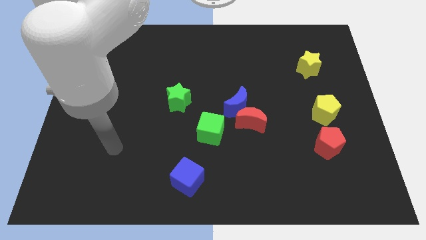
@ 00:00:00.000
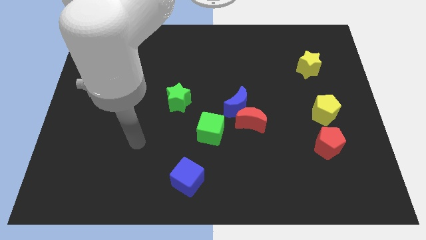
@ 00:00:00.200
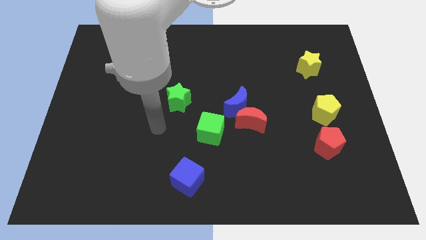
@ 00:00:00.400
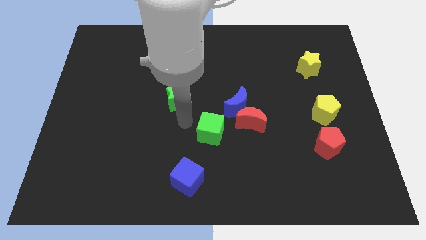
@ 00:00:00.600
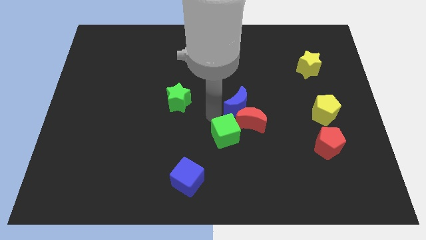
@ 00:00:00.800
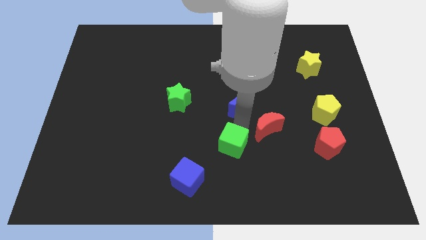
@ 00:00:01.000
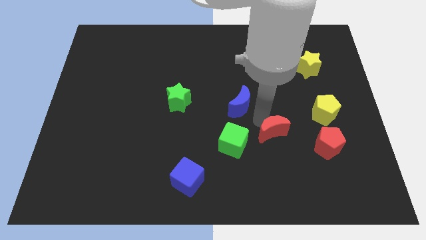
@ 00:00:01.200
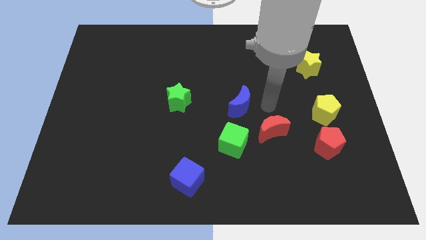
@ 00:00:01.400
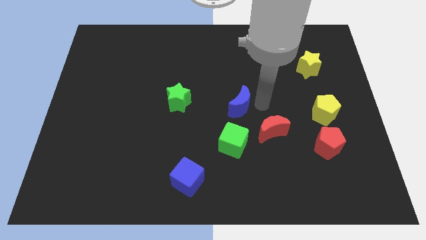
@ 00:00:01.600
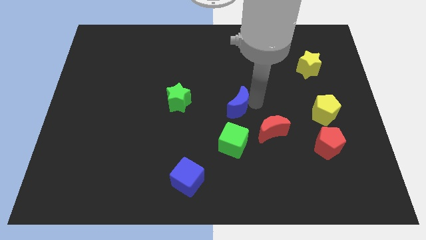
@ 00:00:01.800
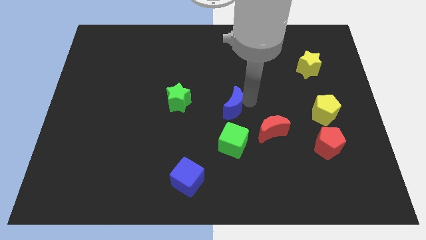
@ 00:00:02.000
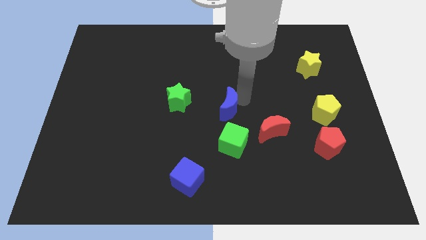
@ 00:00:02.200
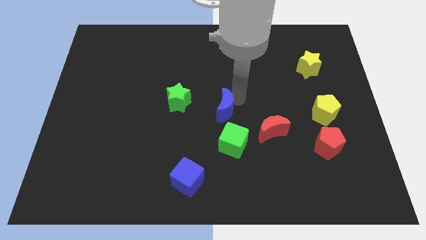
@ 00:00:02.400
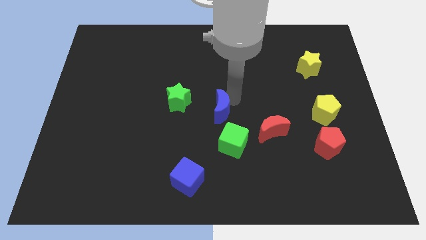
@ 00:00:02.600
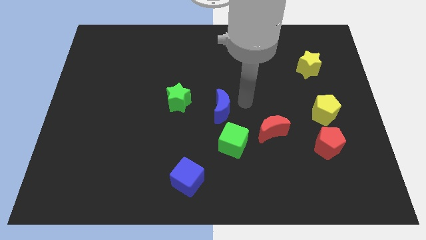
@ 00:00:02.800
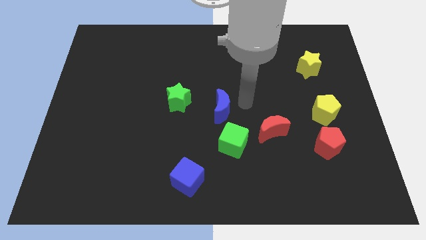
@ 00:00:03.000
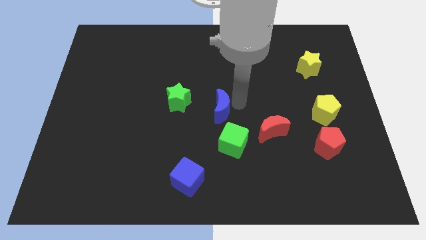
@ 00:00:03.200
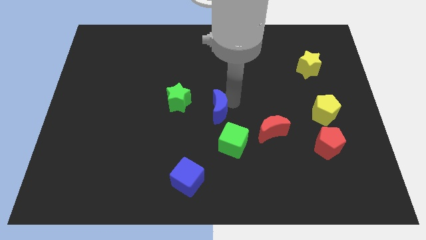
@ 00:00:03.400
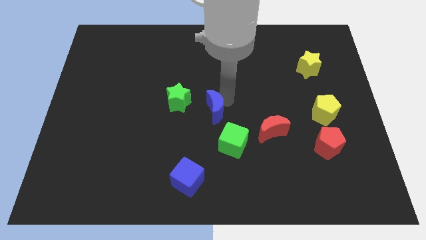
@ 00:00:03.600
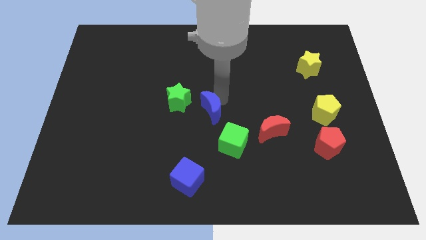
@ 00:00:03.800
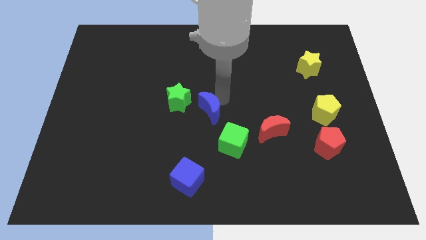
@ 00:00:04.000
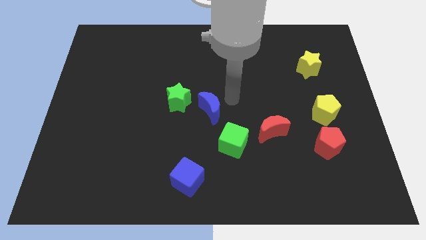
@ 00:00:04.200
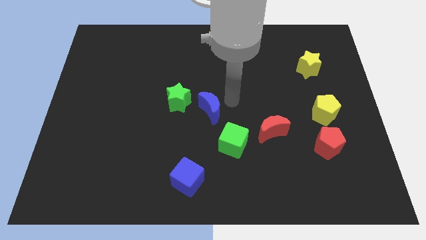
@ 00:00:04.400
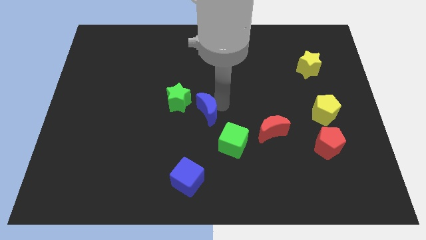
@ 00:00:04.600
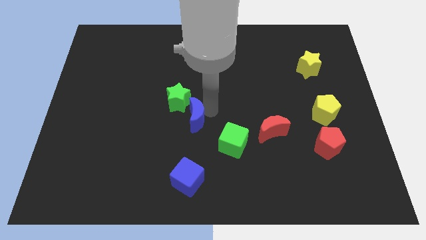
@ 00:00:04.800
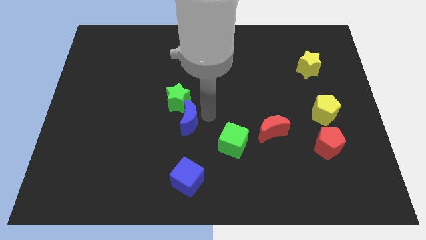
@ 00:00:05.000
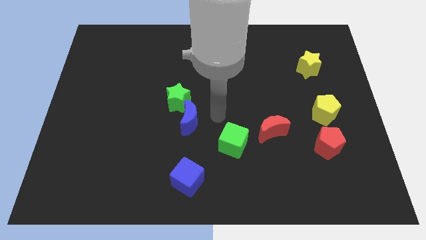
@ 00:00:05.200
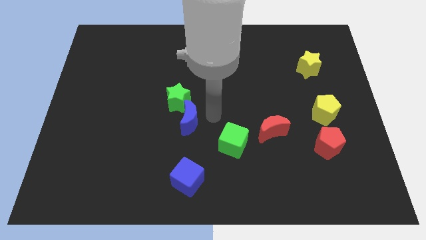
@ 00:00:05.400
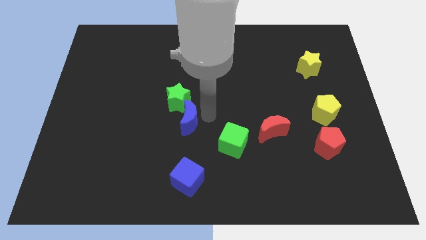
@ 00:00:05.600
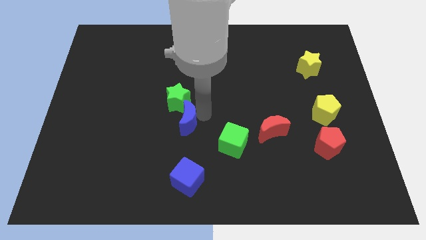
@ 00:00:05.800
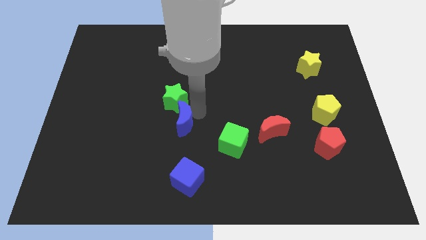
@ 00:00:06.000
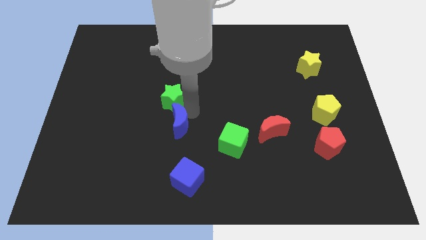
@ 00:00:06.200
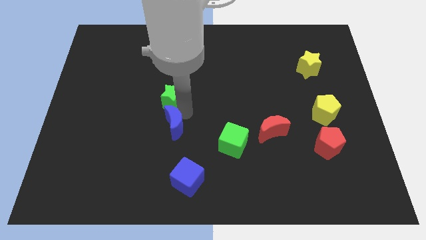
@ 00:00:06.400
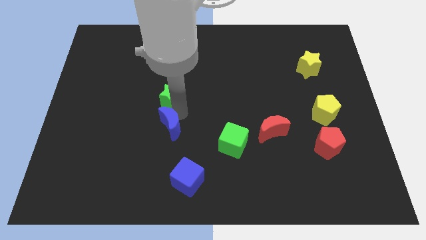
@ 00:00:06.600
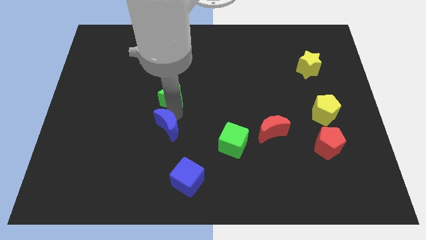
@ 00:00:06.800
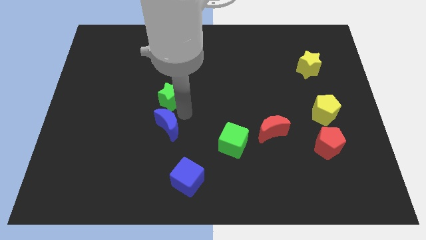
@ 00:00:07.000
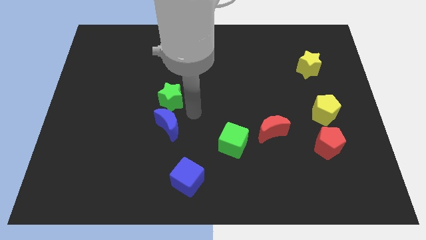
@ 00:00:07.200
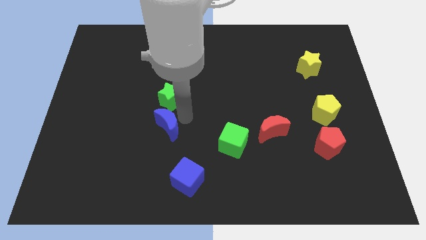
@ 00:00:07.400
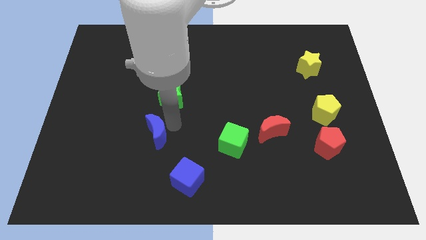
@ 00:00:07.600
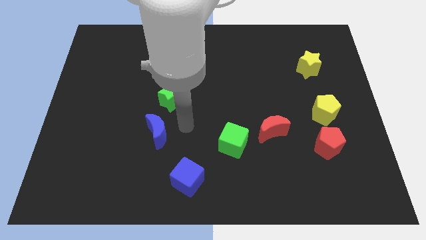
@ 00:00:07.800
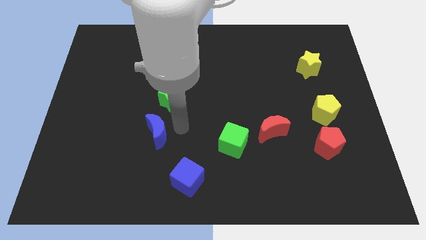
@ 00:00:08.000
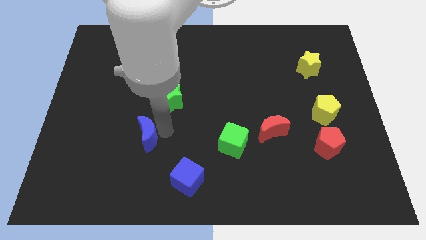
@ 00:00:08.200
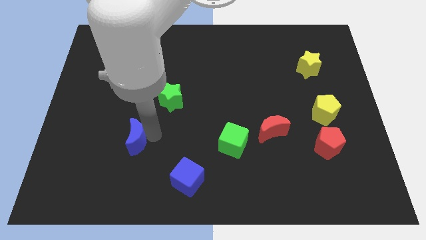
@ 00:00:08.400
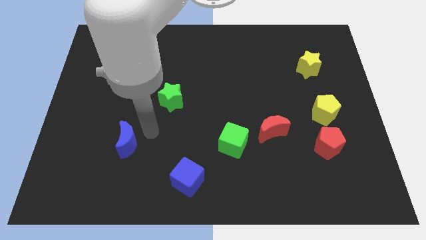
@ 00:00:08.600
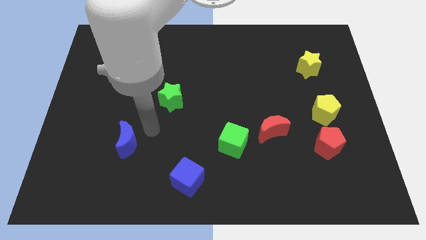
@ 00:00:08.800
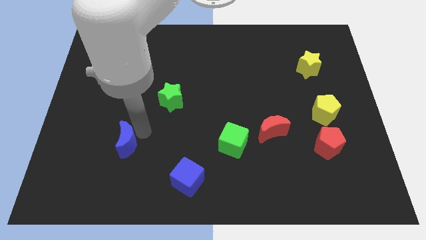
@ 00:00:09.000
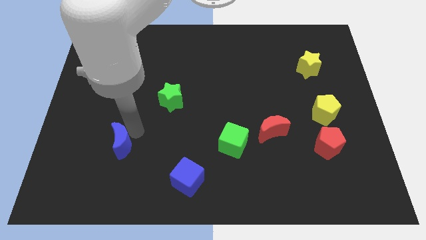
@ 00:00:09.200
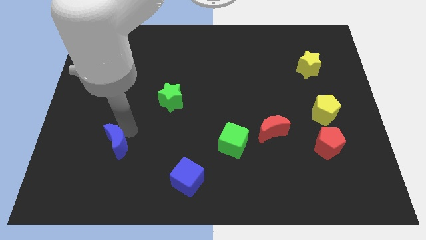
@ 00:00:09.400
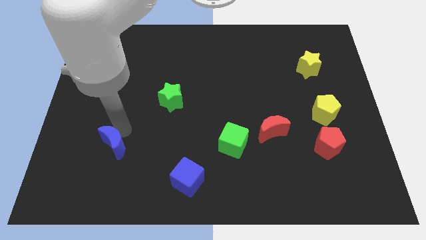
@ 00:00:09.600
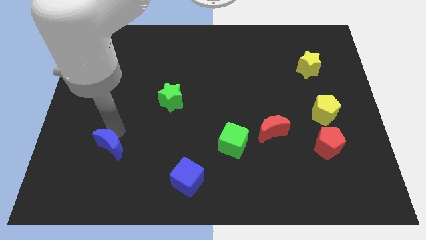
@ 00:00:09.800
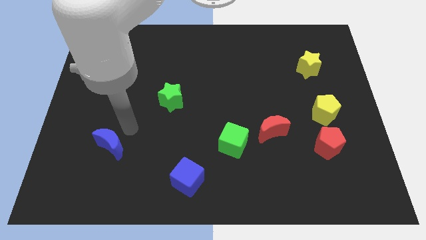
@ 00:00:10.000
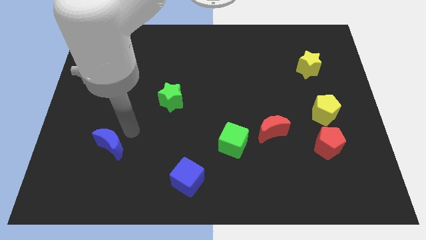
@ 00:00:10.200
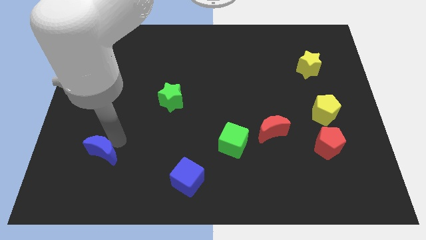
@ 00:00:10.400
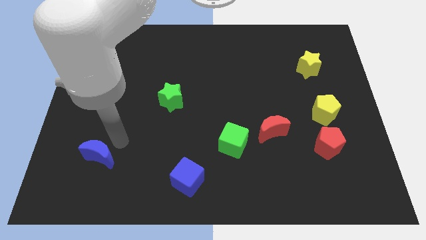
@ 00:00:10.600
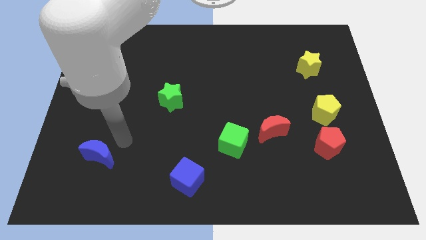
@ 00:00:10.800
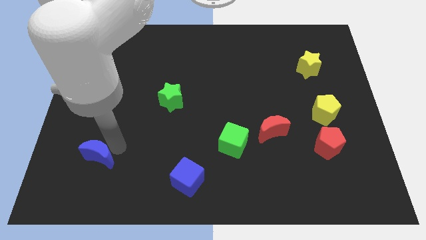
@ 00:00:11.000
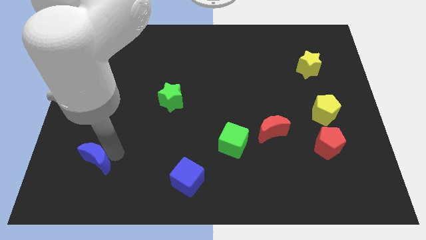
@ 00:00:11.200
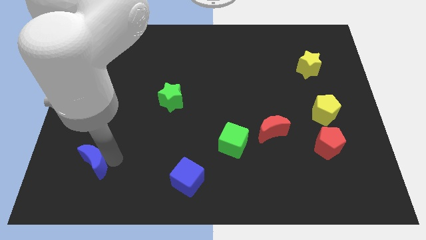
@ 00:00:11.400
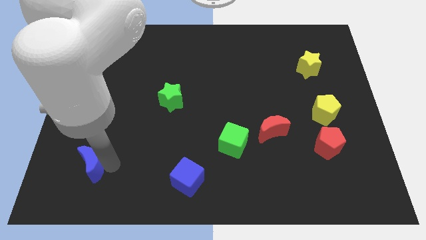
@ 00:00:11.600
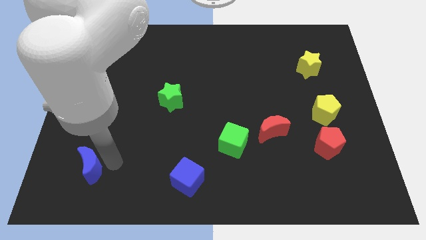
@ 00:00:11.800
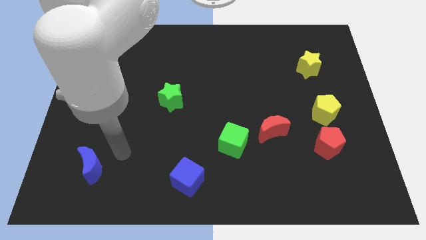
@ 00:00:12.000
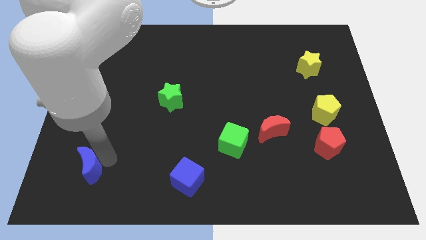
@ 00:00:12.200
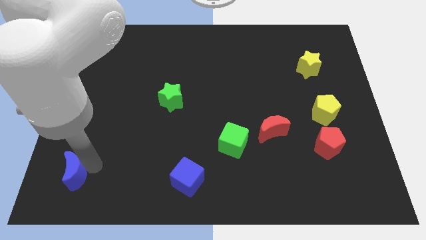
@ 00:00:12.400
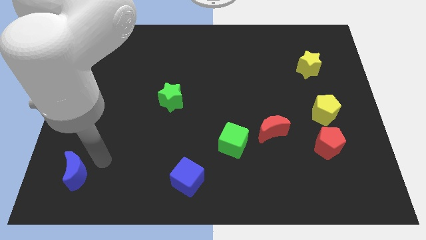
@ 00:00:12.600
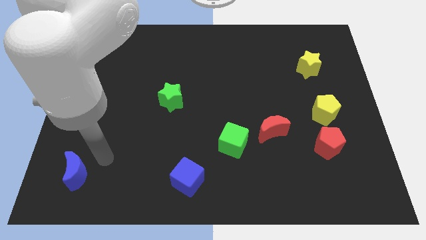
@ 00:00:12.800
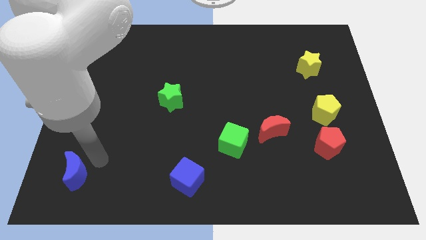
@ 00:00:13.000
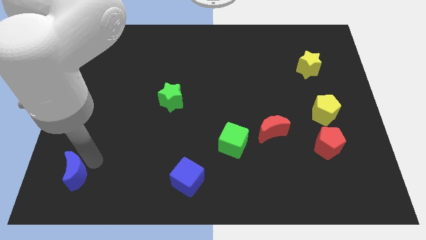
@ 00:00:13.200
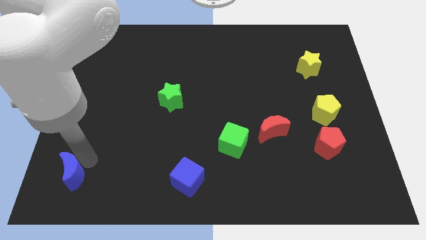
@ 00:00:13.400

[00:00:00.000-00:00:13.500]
put the blue moon to the lower left corner
